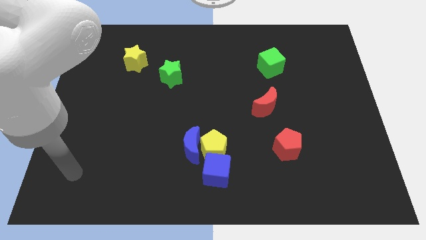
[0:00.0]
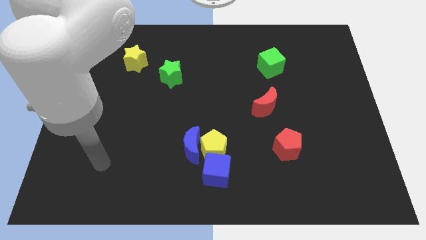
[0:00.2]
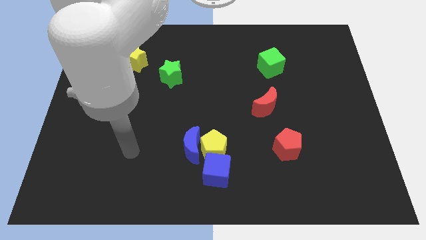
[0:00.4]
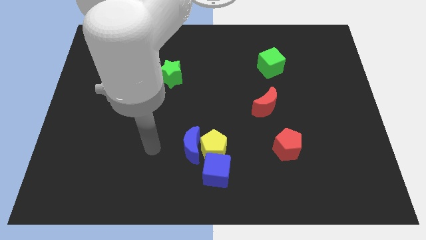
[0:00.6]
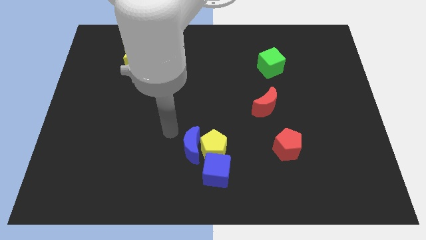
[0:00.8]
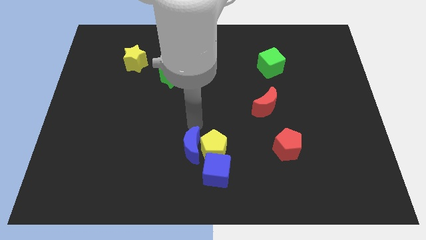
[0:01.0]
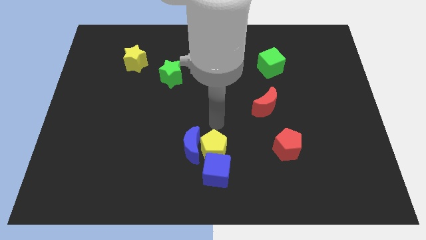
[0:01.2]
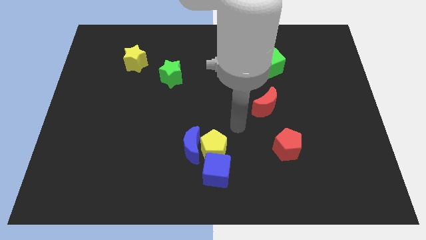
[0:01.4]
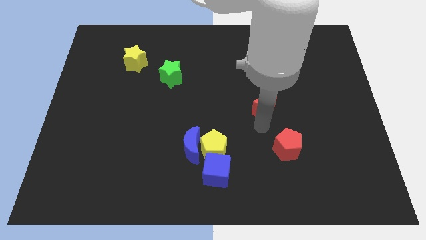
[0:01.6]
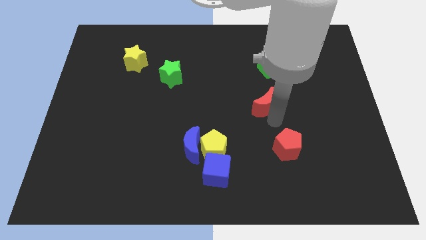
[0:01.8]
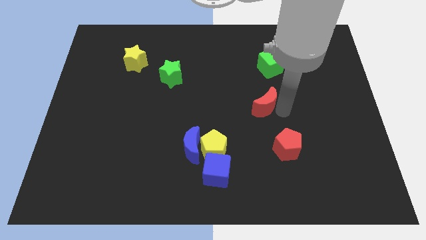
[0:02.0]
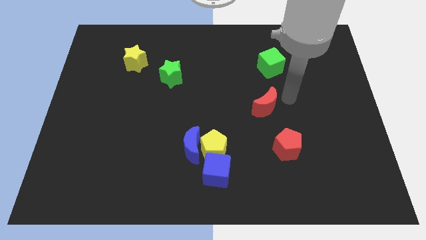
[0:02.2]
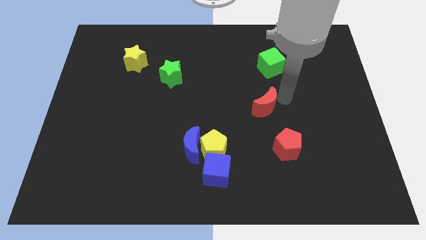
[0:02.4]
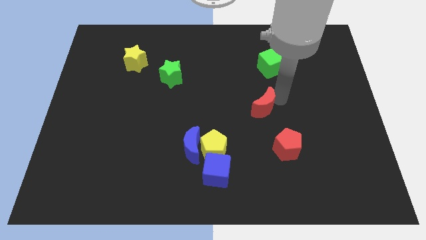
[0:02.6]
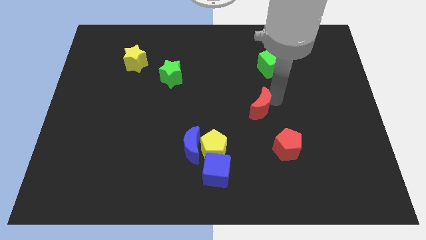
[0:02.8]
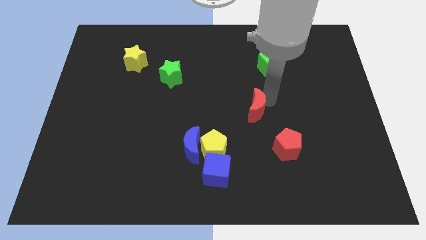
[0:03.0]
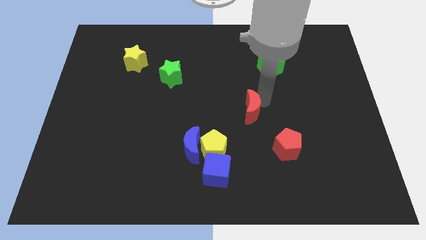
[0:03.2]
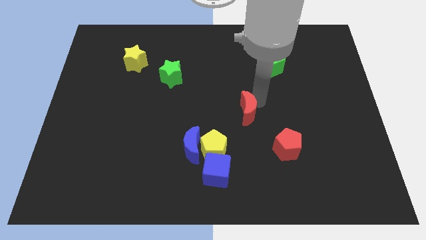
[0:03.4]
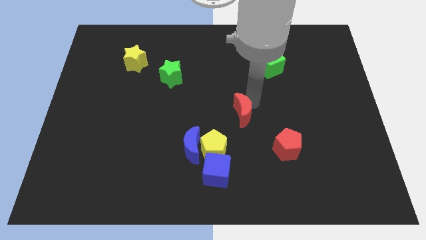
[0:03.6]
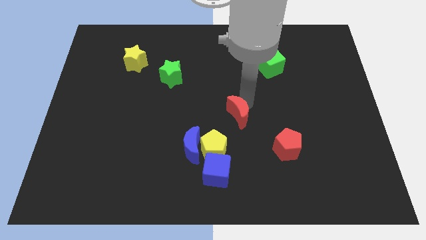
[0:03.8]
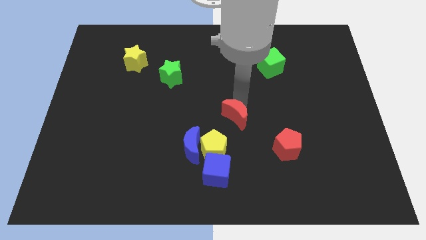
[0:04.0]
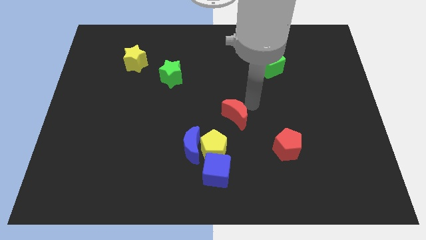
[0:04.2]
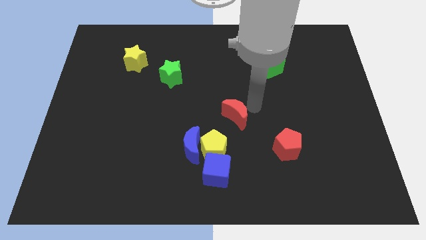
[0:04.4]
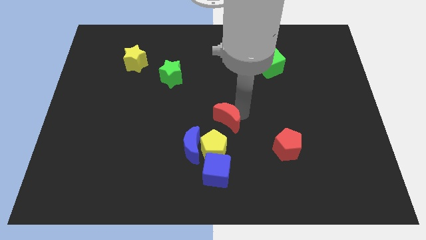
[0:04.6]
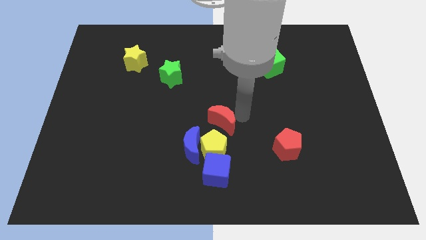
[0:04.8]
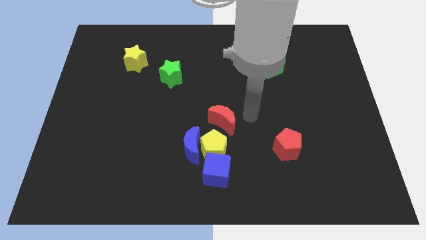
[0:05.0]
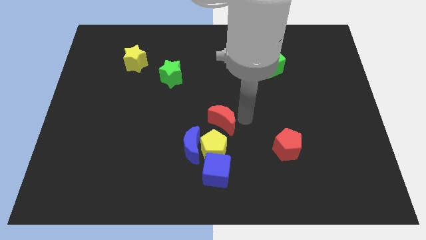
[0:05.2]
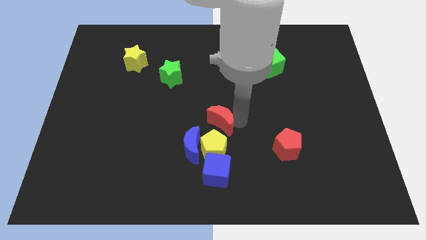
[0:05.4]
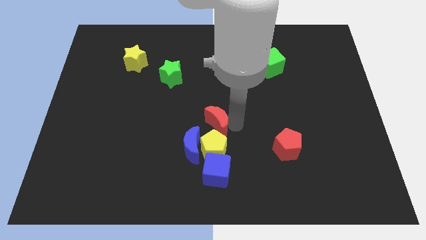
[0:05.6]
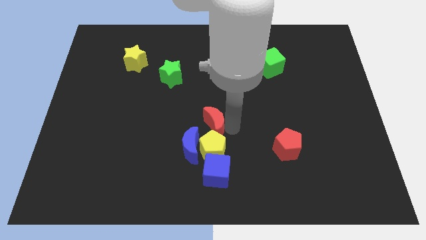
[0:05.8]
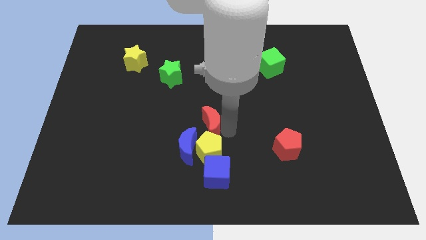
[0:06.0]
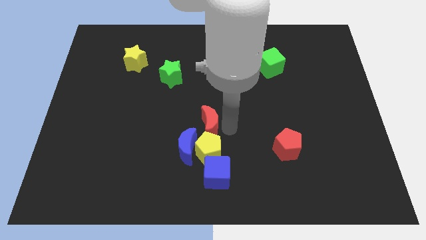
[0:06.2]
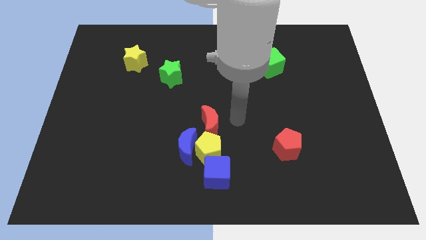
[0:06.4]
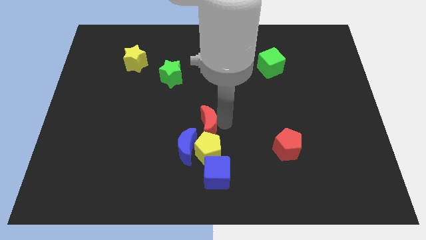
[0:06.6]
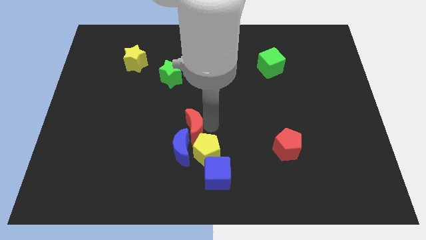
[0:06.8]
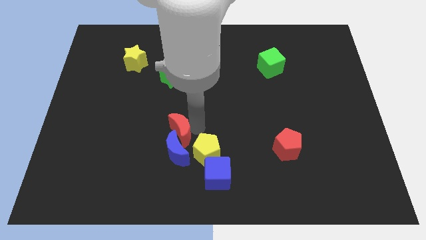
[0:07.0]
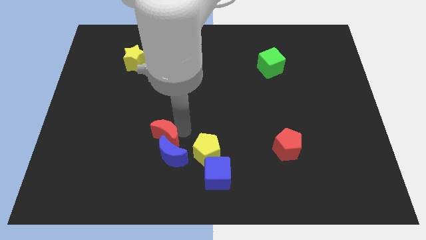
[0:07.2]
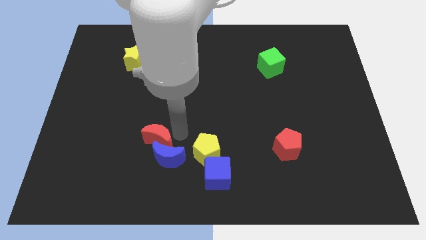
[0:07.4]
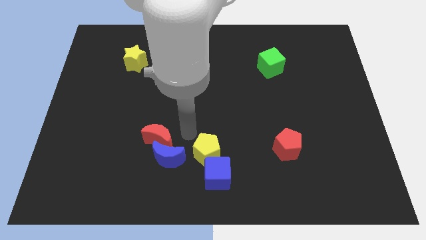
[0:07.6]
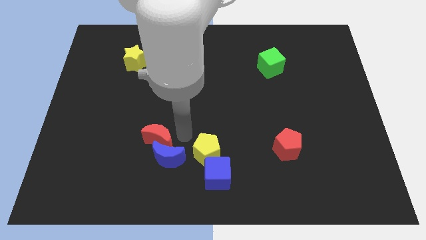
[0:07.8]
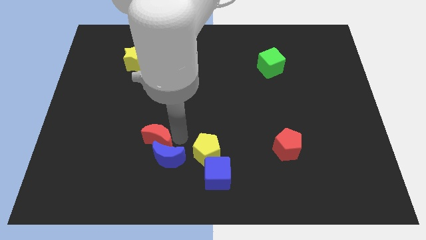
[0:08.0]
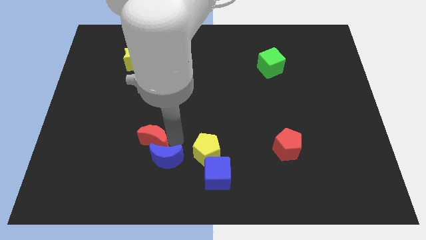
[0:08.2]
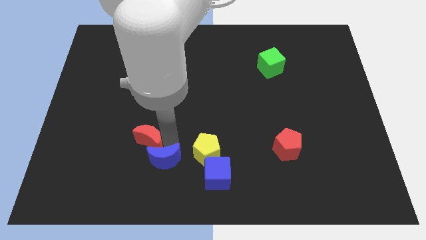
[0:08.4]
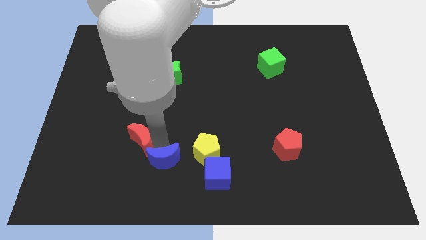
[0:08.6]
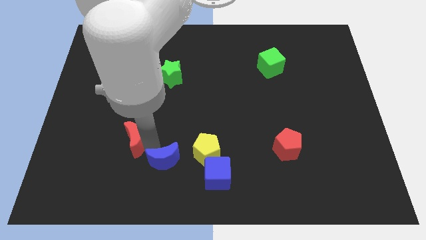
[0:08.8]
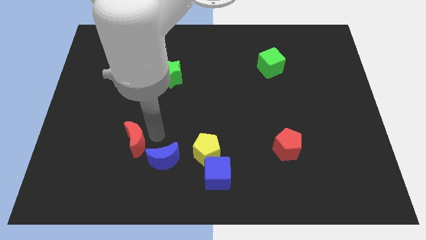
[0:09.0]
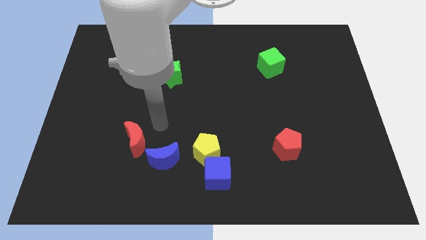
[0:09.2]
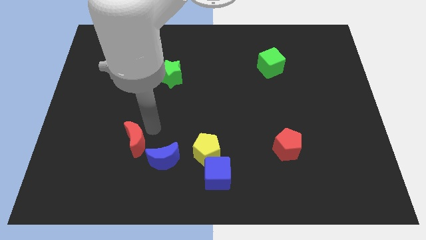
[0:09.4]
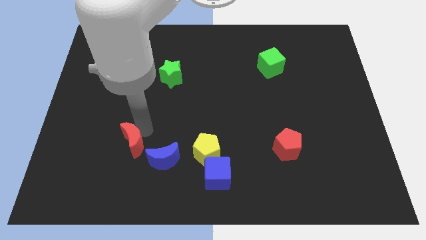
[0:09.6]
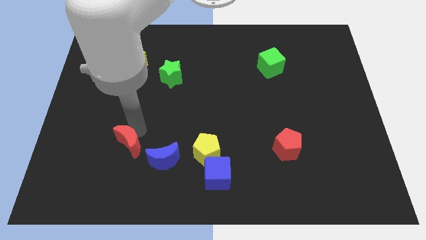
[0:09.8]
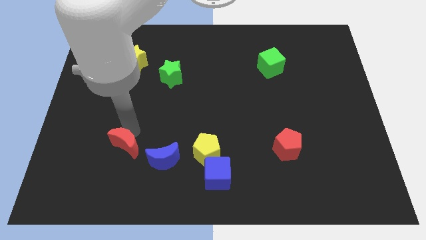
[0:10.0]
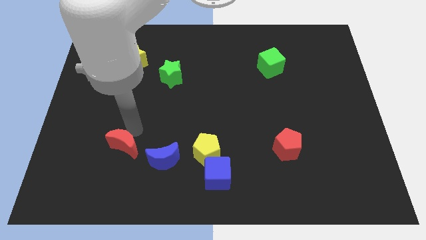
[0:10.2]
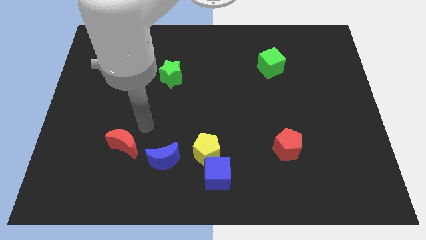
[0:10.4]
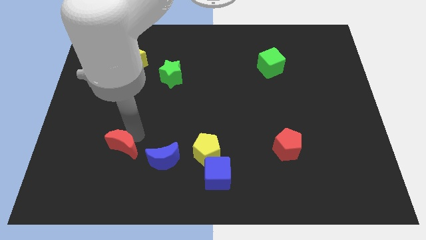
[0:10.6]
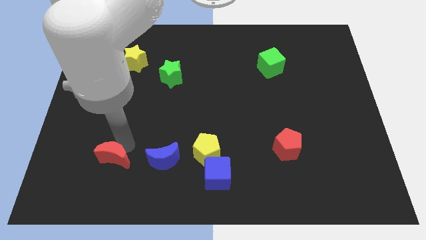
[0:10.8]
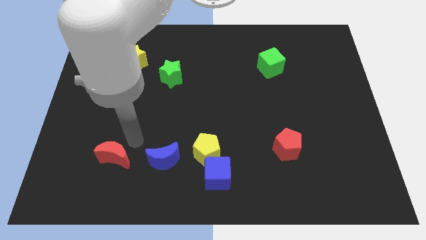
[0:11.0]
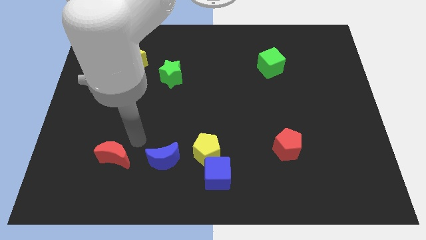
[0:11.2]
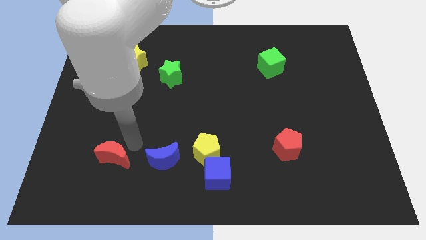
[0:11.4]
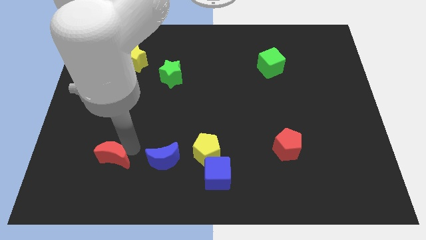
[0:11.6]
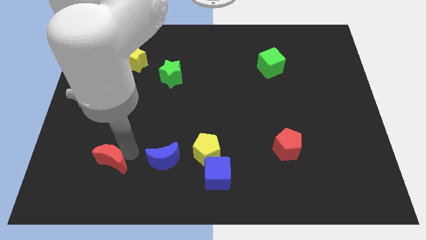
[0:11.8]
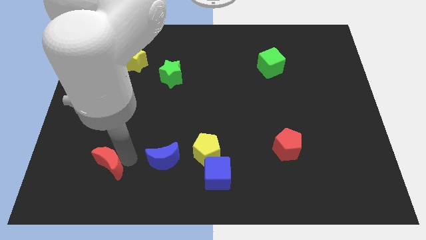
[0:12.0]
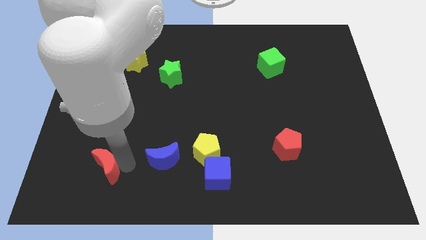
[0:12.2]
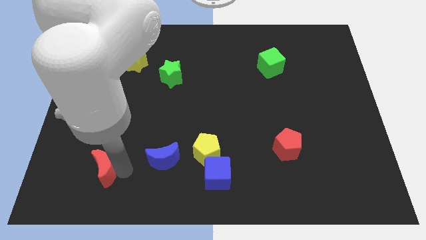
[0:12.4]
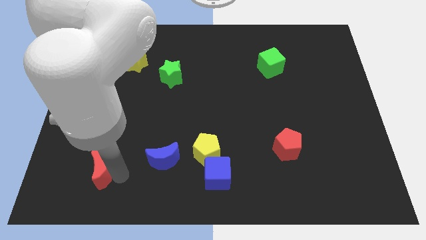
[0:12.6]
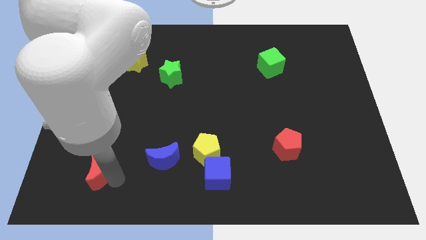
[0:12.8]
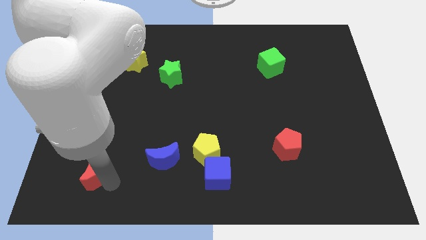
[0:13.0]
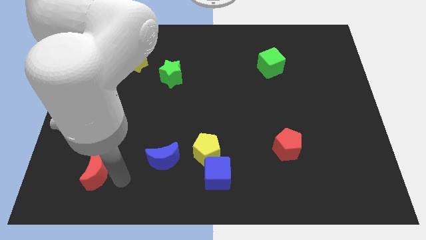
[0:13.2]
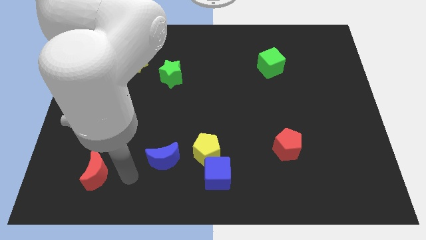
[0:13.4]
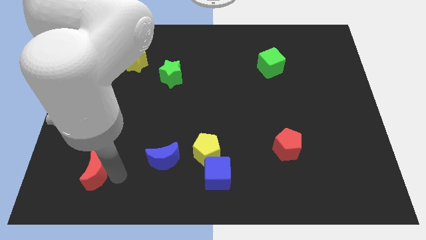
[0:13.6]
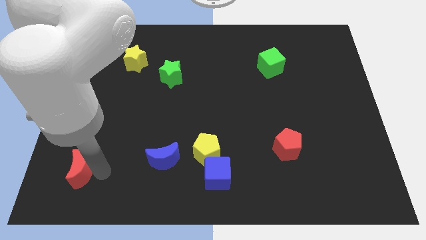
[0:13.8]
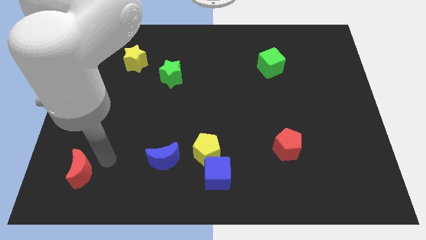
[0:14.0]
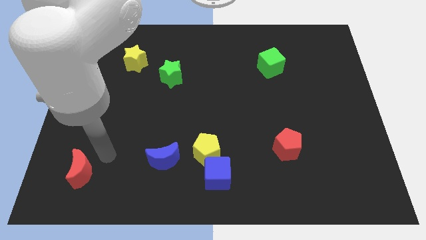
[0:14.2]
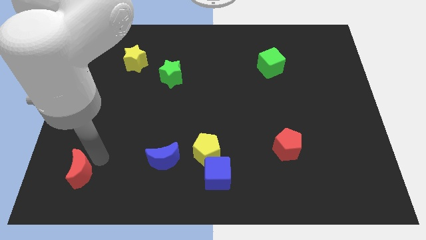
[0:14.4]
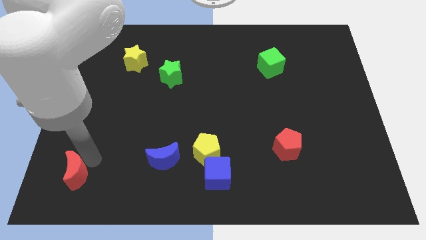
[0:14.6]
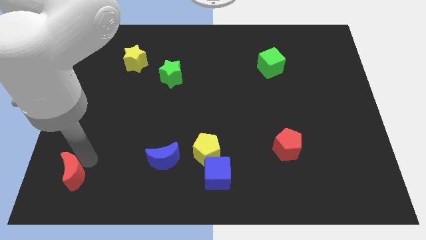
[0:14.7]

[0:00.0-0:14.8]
push the red moon to the bottom left
